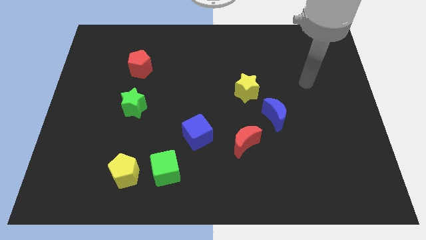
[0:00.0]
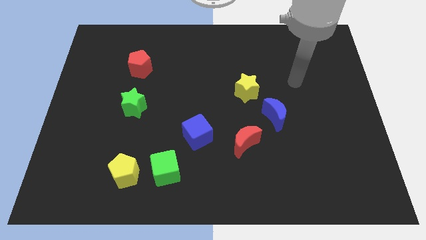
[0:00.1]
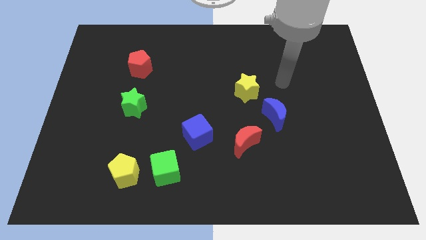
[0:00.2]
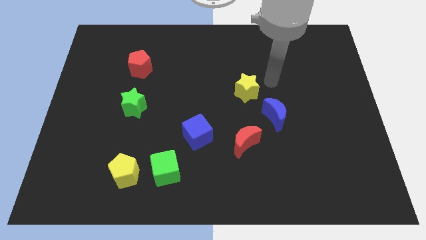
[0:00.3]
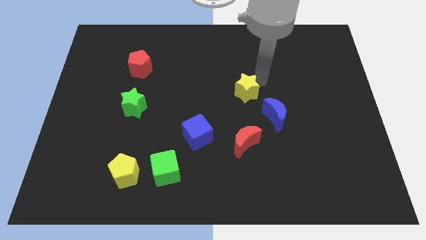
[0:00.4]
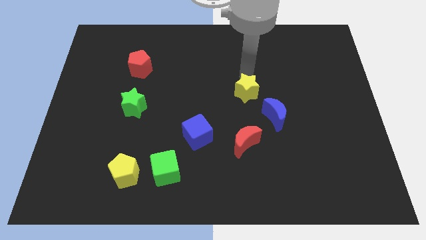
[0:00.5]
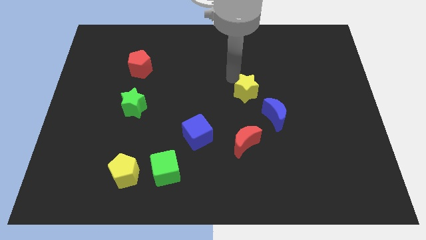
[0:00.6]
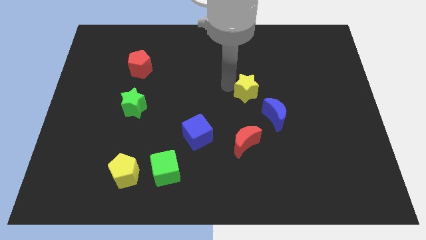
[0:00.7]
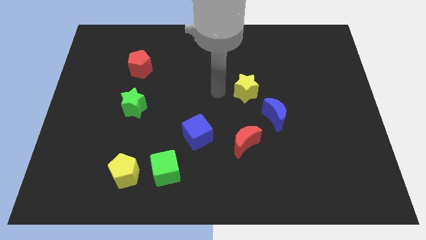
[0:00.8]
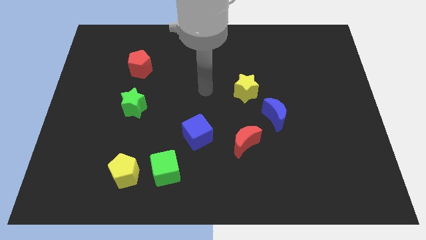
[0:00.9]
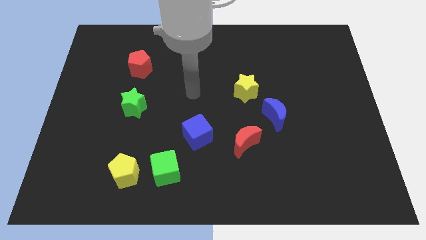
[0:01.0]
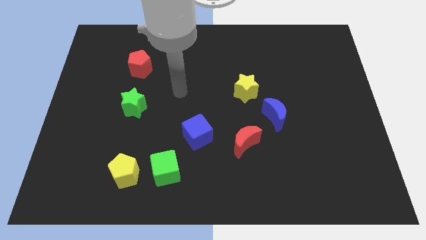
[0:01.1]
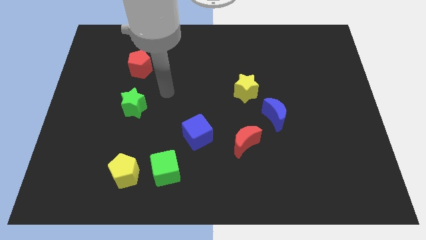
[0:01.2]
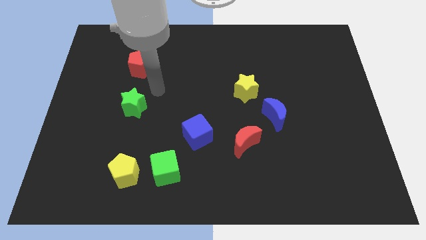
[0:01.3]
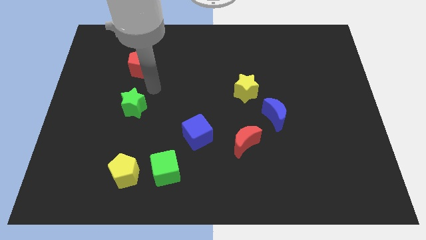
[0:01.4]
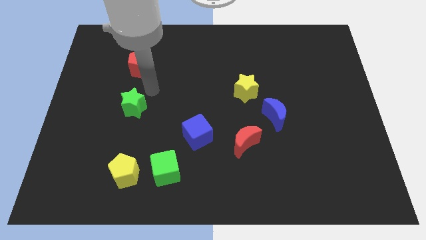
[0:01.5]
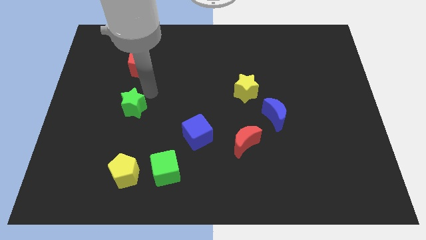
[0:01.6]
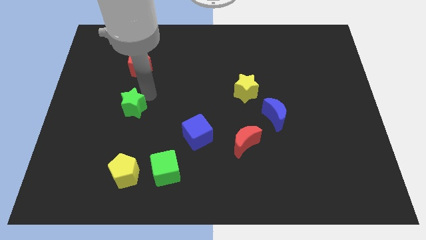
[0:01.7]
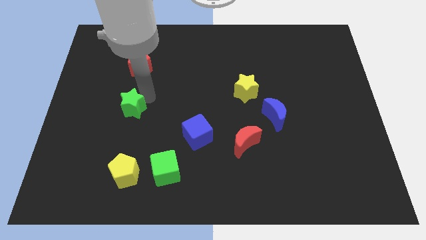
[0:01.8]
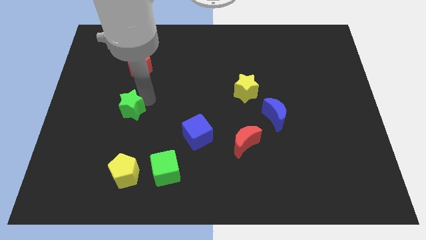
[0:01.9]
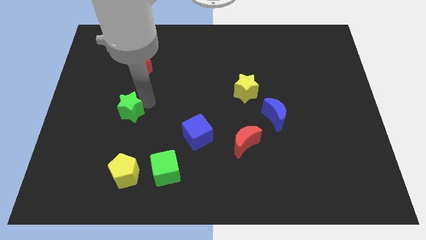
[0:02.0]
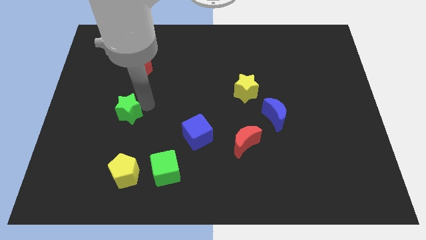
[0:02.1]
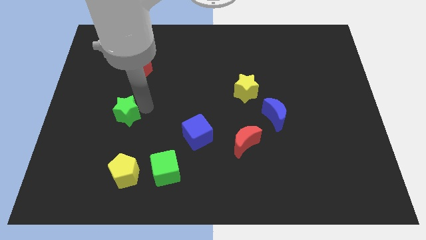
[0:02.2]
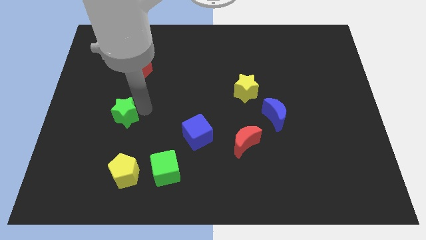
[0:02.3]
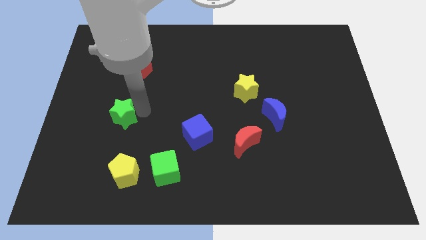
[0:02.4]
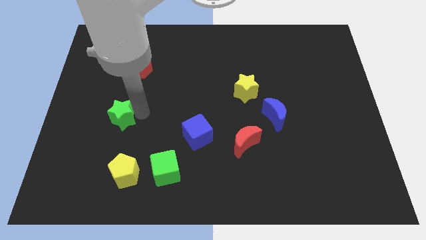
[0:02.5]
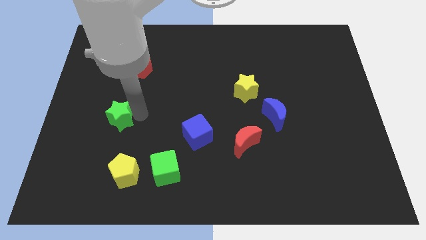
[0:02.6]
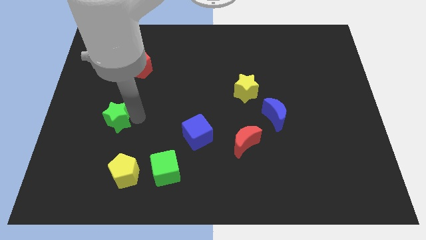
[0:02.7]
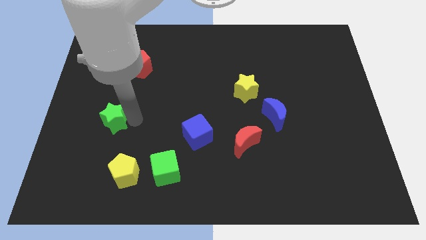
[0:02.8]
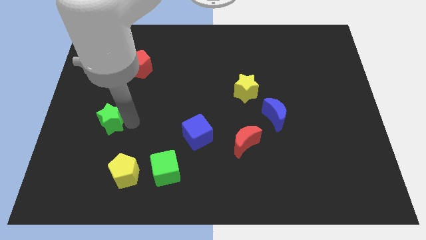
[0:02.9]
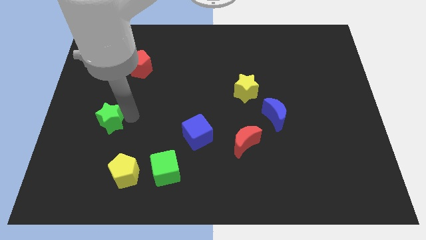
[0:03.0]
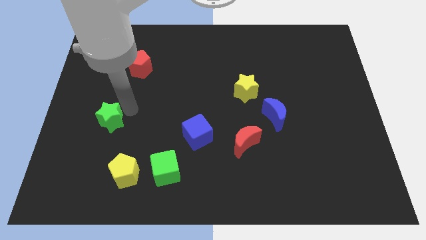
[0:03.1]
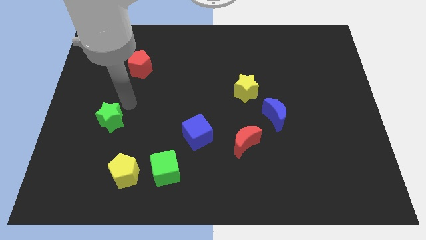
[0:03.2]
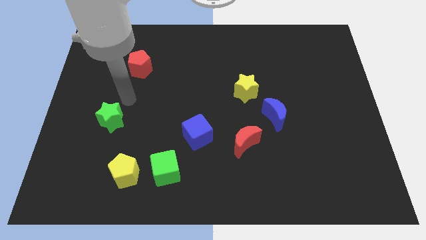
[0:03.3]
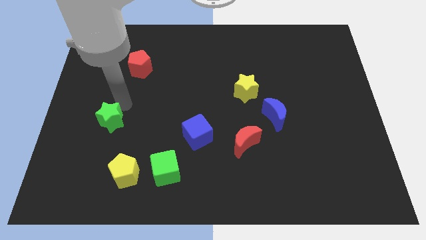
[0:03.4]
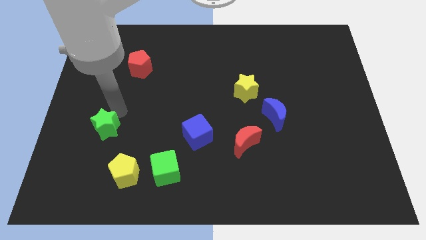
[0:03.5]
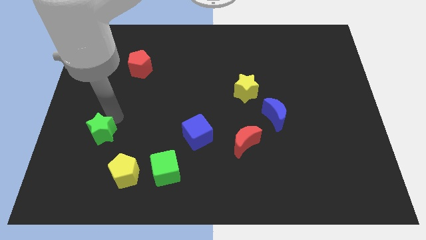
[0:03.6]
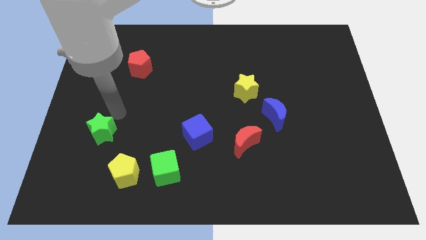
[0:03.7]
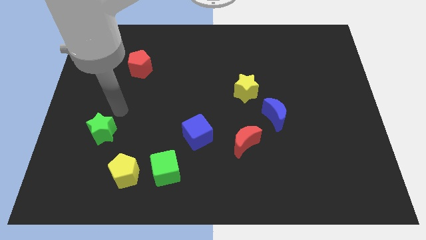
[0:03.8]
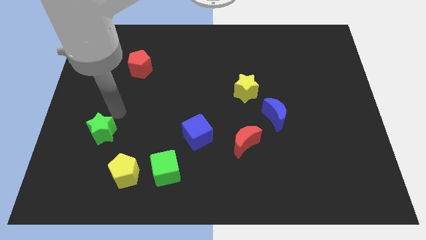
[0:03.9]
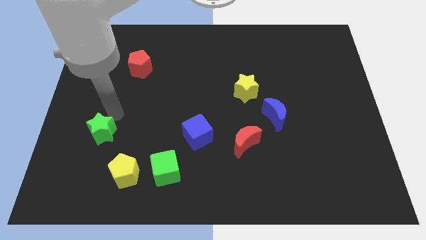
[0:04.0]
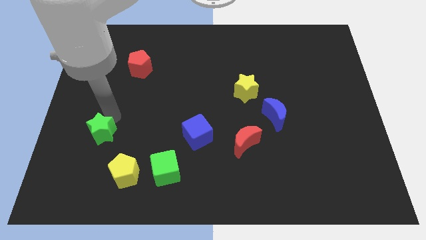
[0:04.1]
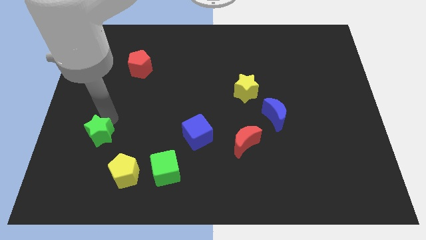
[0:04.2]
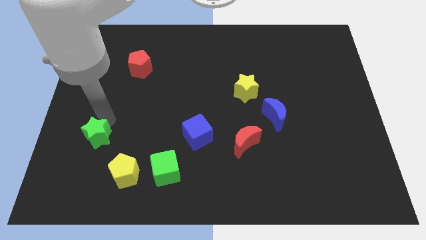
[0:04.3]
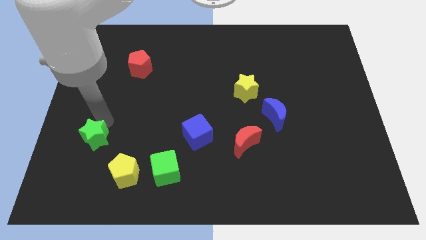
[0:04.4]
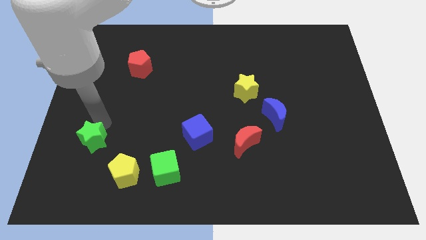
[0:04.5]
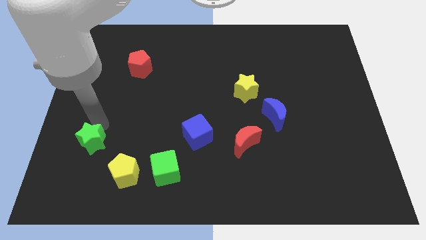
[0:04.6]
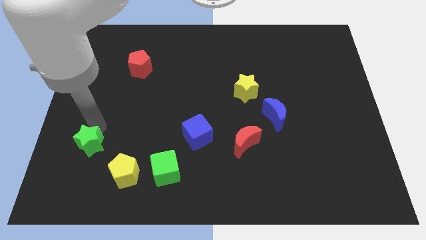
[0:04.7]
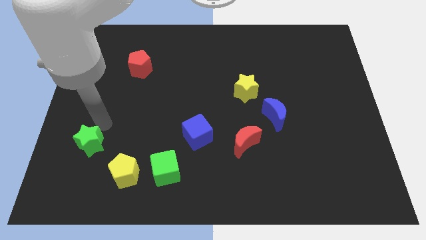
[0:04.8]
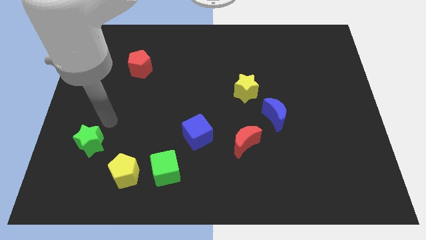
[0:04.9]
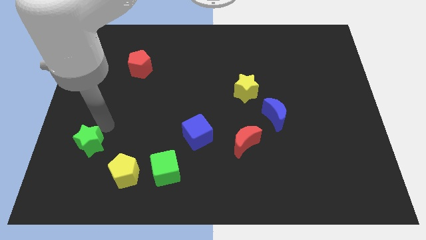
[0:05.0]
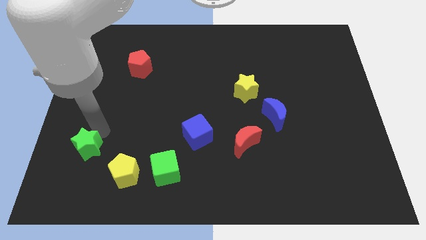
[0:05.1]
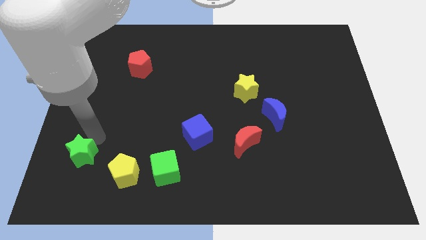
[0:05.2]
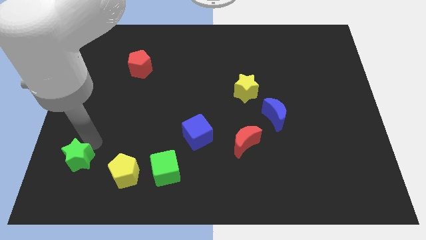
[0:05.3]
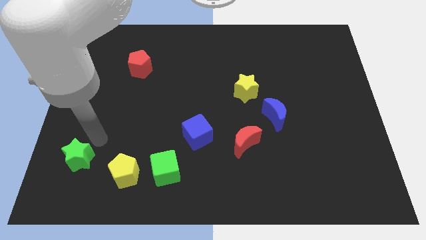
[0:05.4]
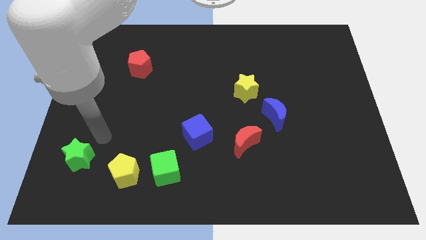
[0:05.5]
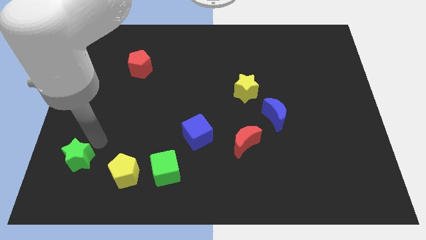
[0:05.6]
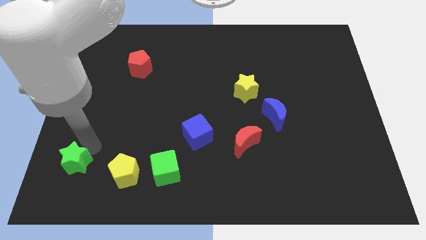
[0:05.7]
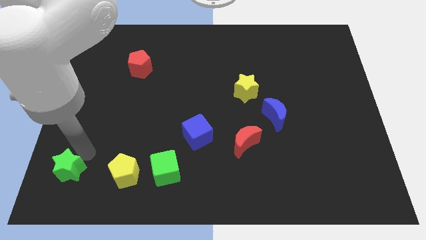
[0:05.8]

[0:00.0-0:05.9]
slide the green star to the bottom left corner
